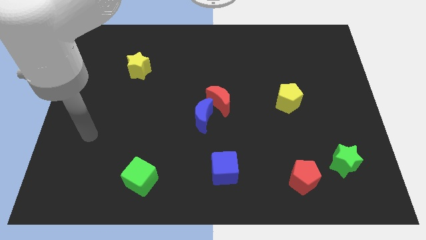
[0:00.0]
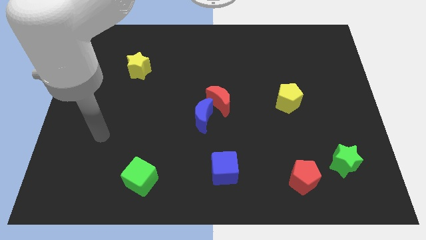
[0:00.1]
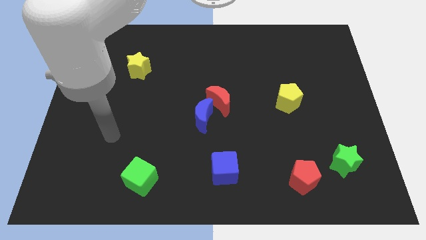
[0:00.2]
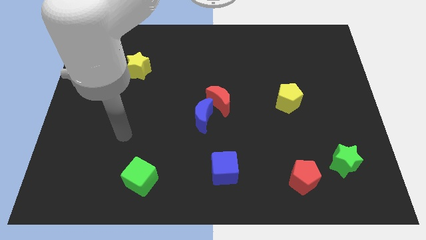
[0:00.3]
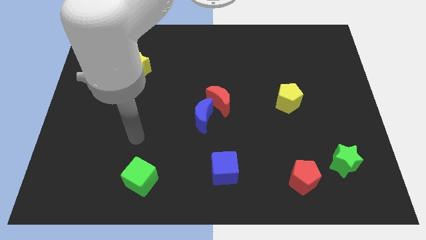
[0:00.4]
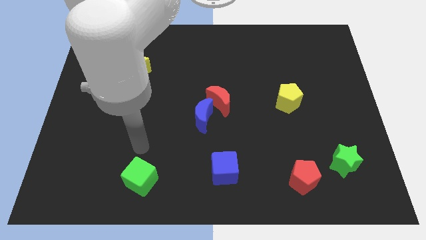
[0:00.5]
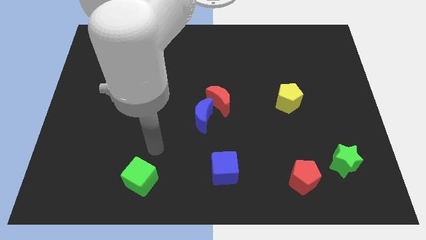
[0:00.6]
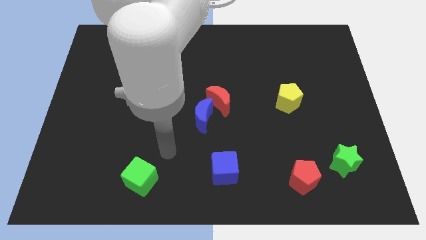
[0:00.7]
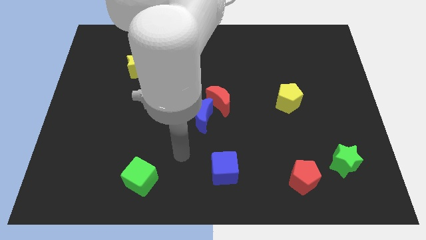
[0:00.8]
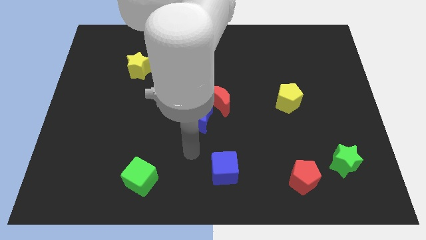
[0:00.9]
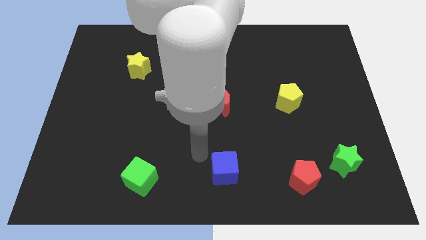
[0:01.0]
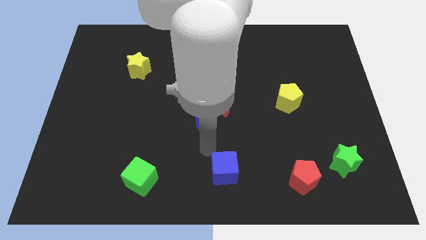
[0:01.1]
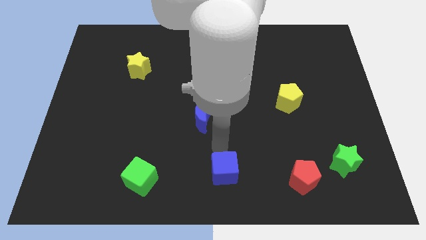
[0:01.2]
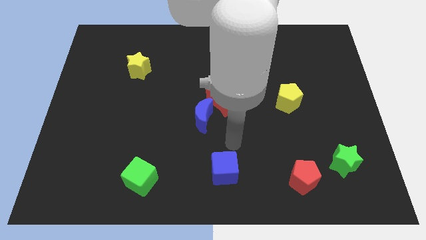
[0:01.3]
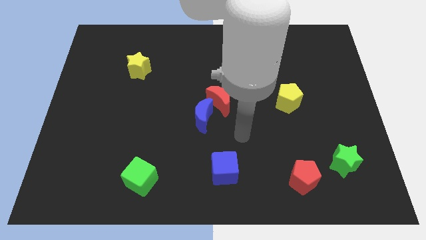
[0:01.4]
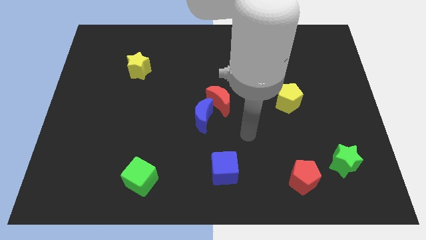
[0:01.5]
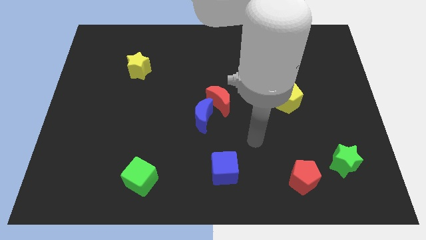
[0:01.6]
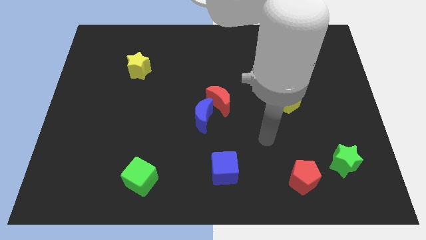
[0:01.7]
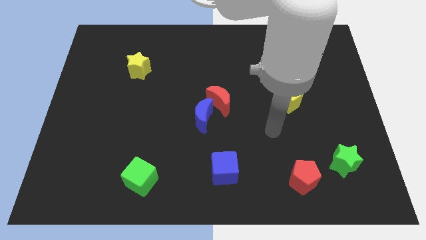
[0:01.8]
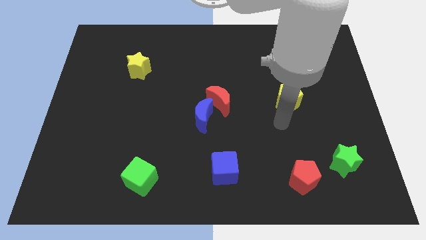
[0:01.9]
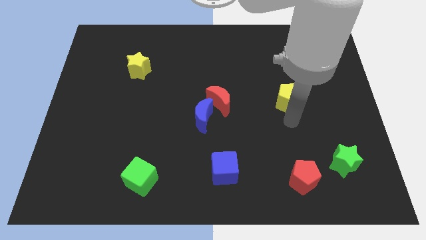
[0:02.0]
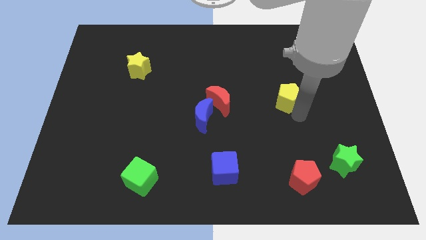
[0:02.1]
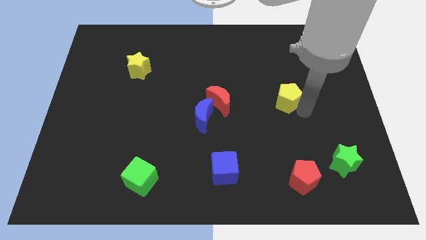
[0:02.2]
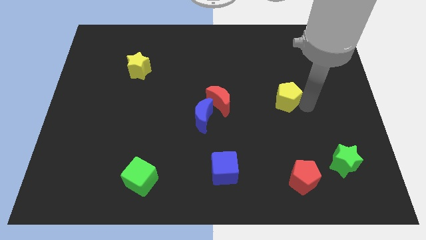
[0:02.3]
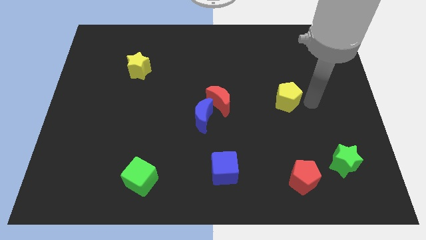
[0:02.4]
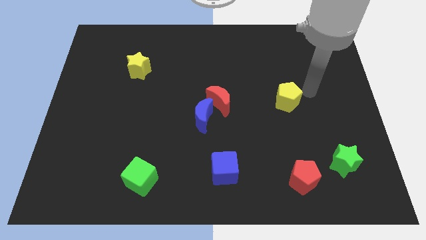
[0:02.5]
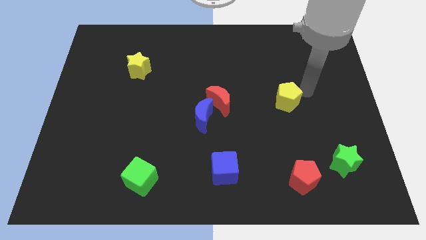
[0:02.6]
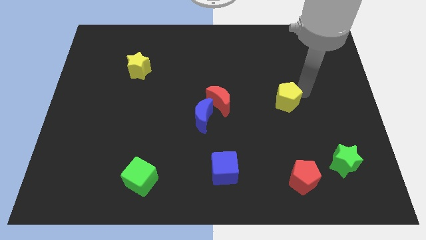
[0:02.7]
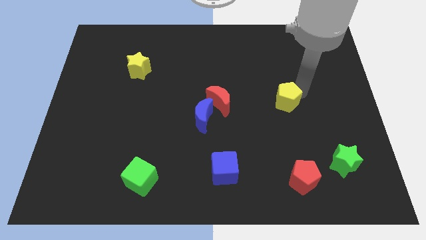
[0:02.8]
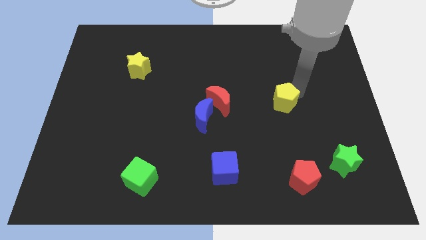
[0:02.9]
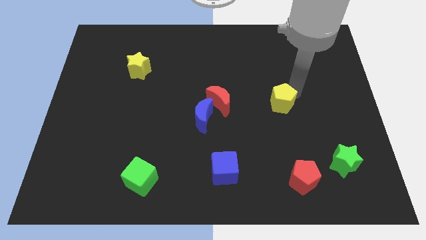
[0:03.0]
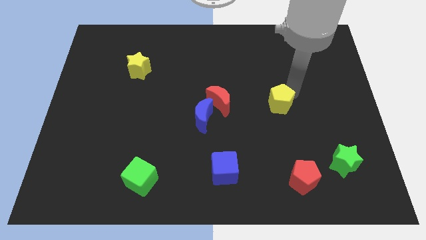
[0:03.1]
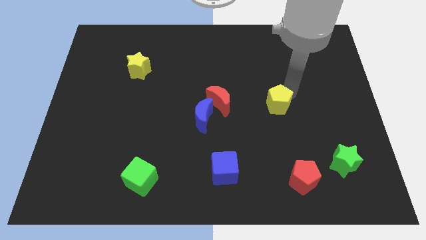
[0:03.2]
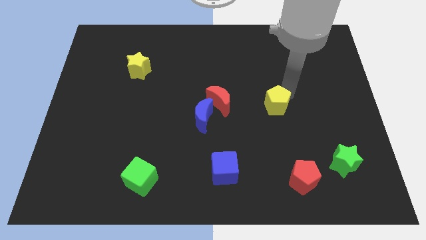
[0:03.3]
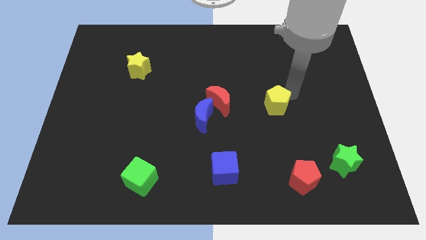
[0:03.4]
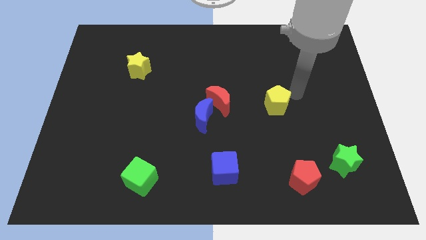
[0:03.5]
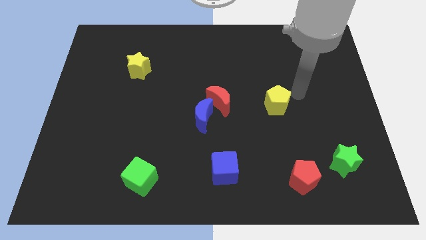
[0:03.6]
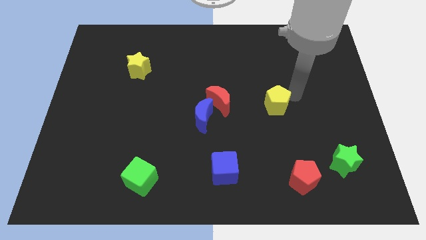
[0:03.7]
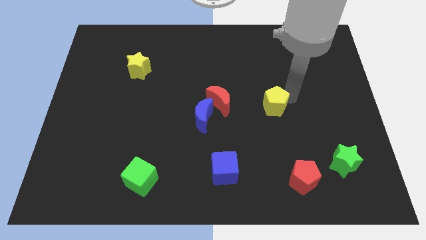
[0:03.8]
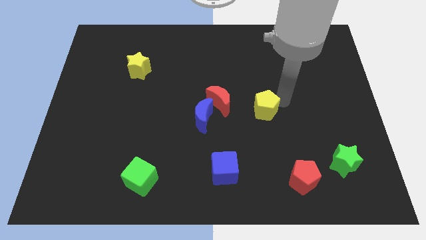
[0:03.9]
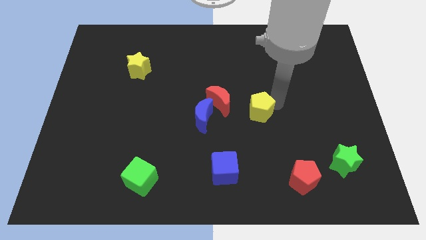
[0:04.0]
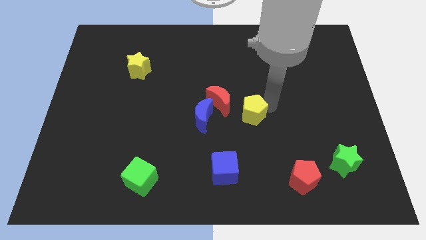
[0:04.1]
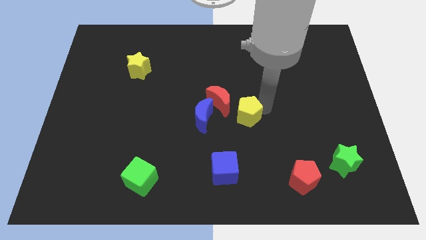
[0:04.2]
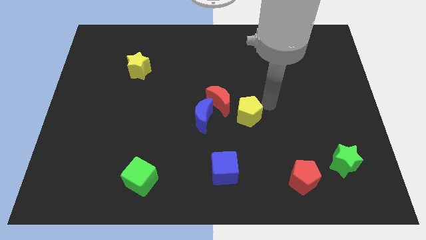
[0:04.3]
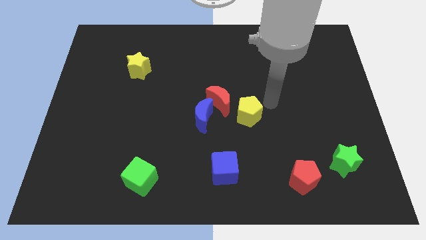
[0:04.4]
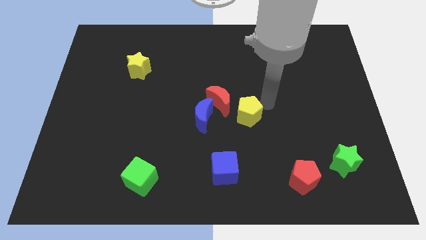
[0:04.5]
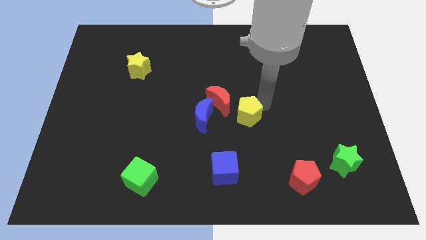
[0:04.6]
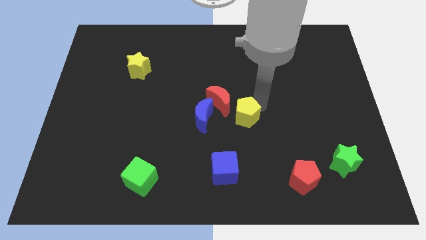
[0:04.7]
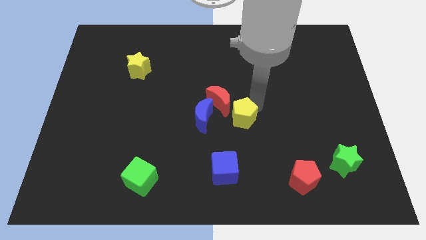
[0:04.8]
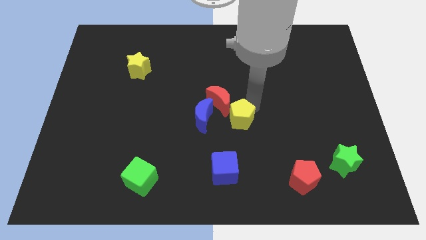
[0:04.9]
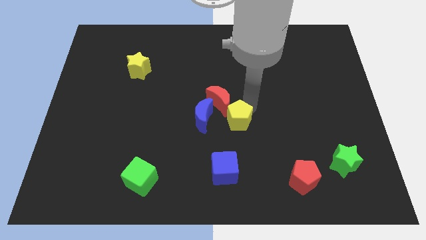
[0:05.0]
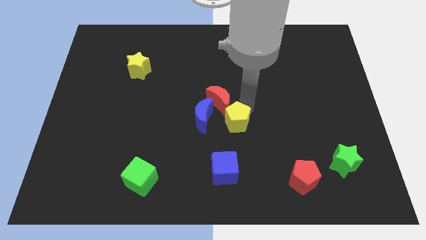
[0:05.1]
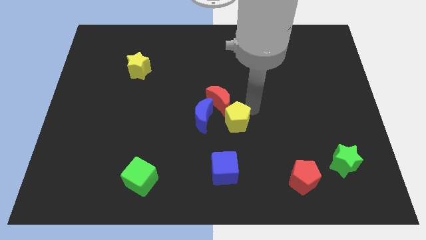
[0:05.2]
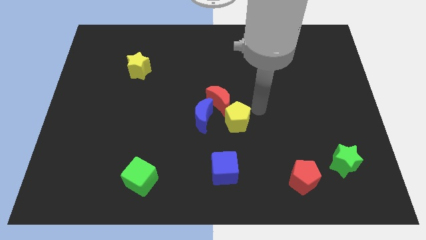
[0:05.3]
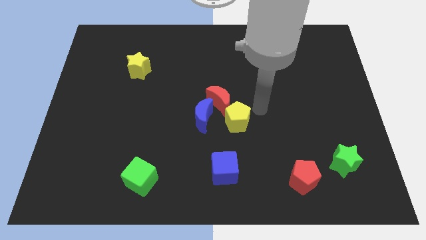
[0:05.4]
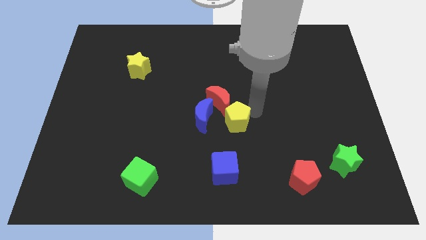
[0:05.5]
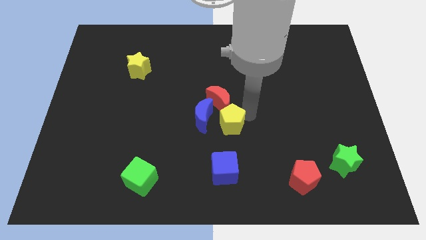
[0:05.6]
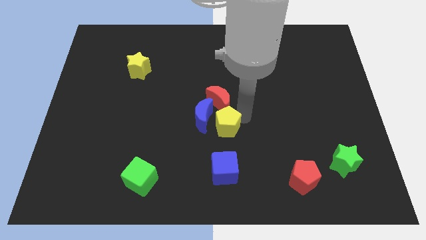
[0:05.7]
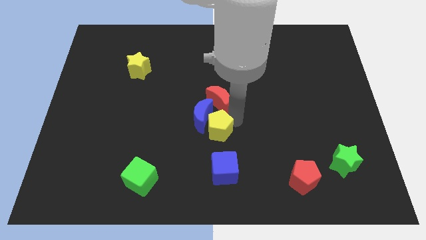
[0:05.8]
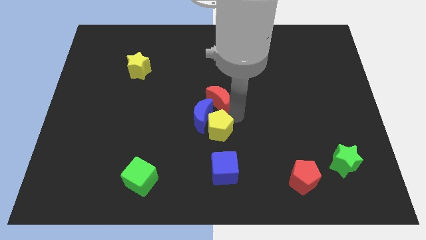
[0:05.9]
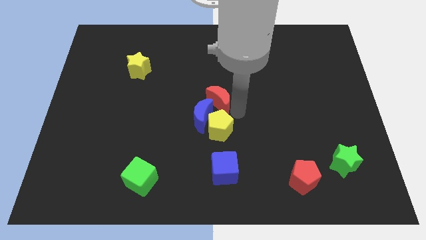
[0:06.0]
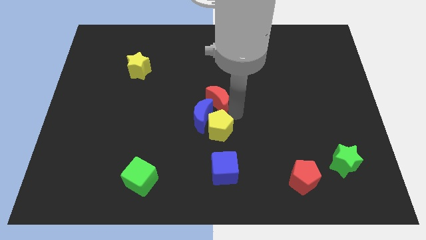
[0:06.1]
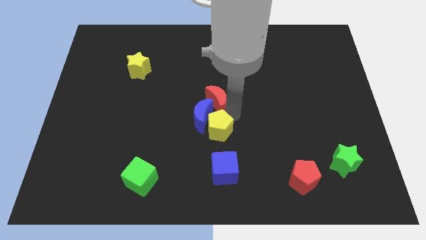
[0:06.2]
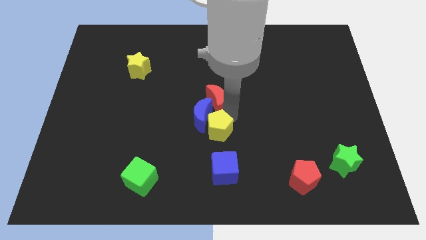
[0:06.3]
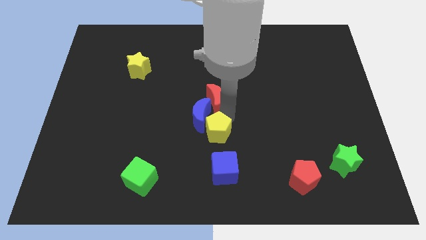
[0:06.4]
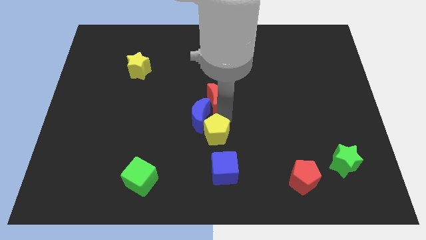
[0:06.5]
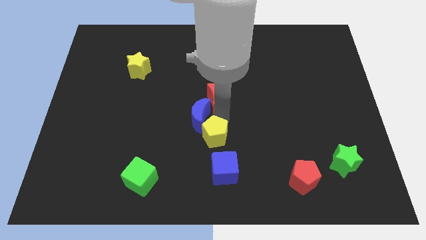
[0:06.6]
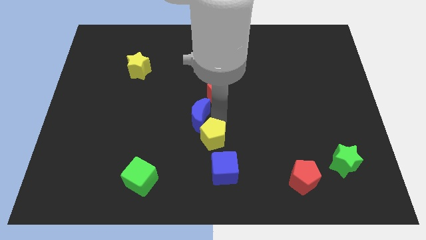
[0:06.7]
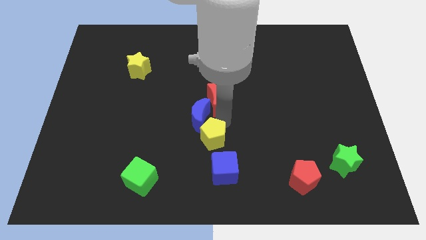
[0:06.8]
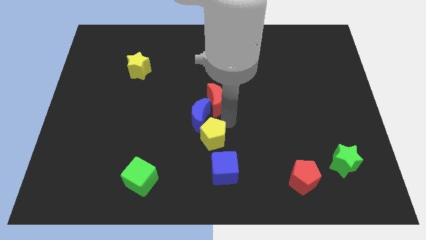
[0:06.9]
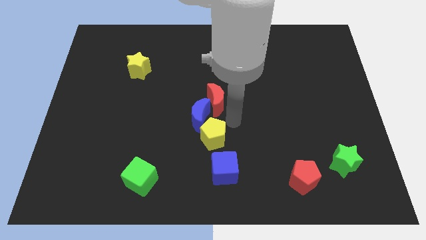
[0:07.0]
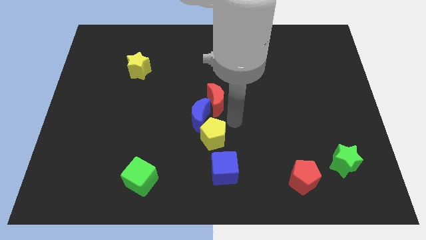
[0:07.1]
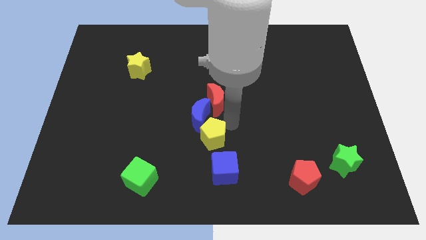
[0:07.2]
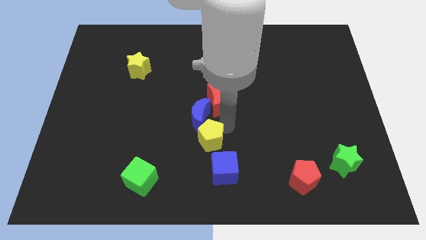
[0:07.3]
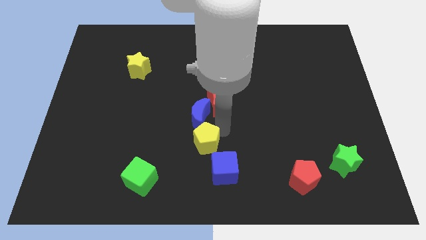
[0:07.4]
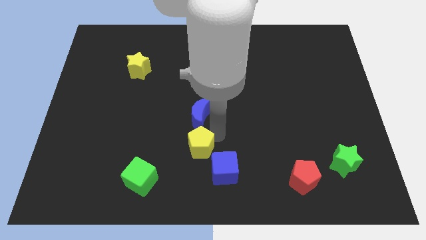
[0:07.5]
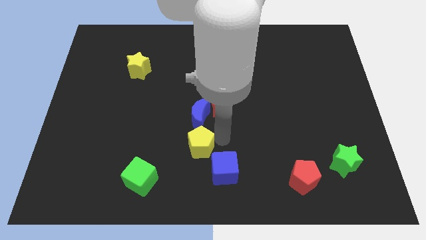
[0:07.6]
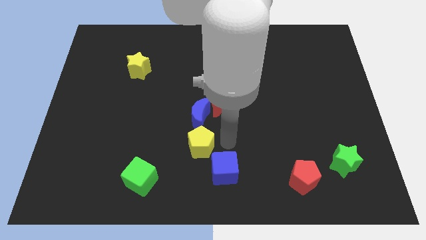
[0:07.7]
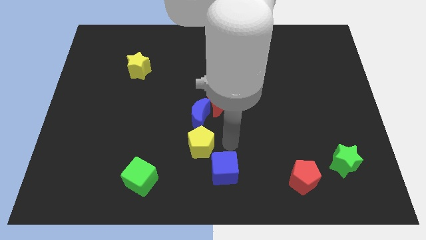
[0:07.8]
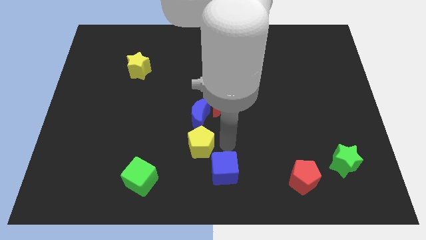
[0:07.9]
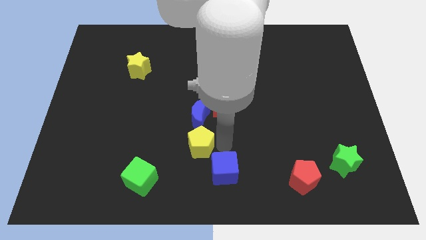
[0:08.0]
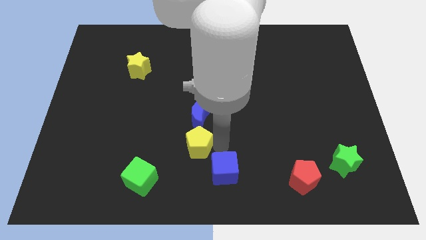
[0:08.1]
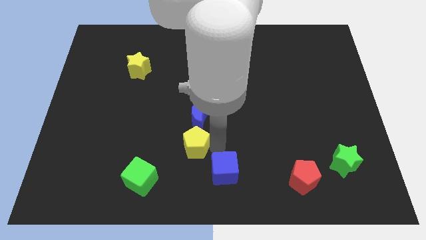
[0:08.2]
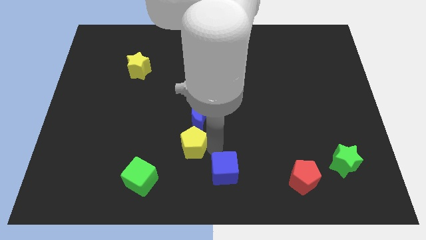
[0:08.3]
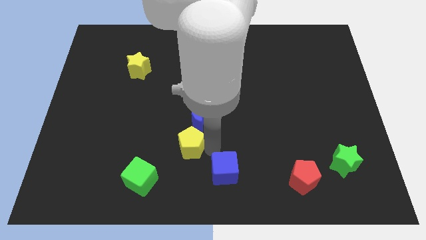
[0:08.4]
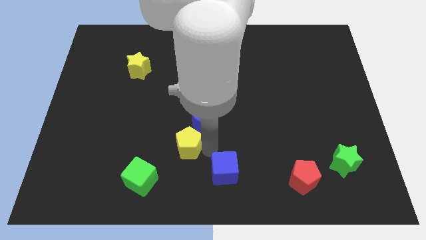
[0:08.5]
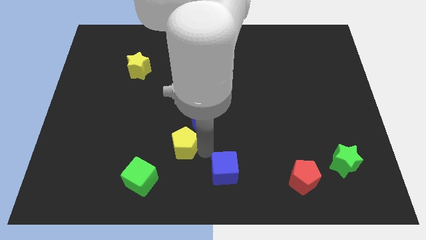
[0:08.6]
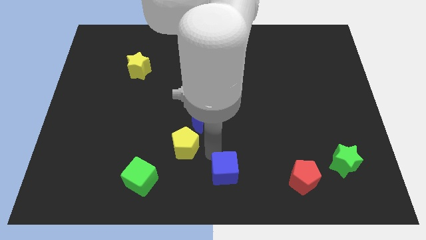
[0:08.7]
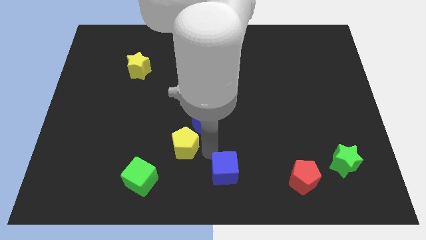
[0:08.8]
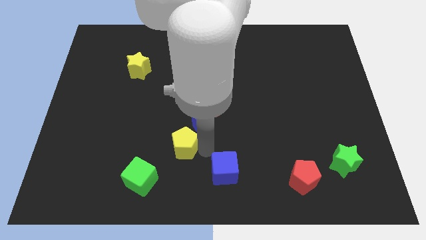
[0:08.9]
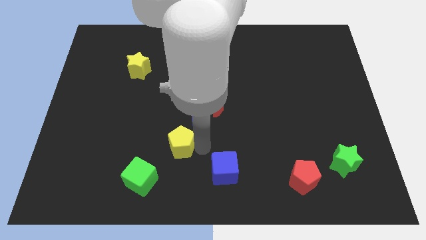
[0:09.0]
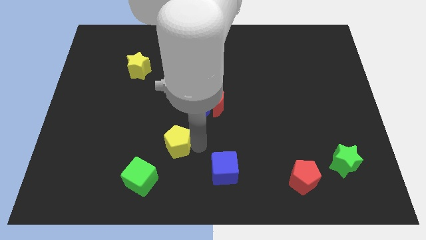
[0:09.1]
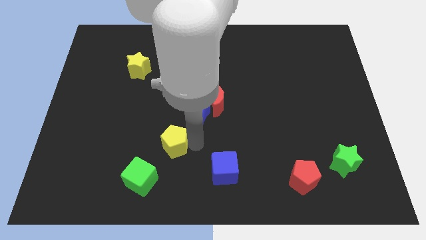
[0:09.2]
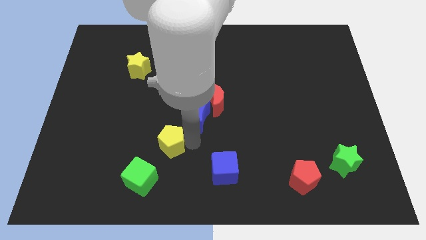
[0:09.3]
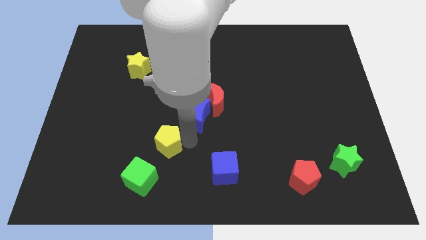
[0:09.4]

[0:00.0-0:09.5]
slide the yellow pentagon above the green cube
